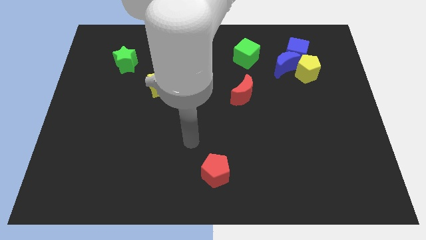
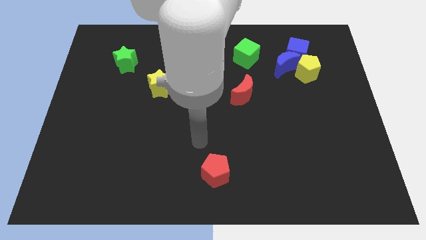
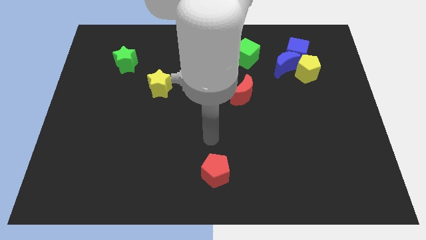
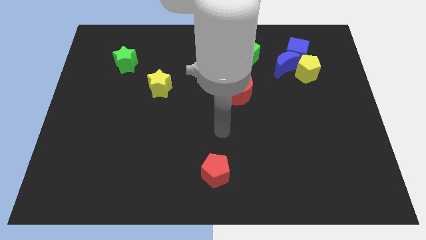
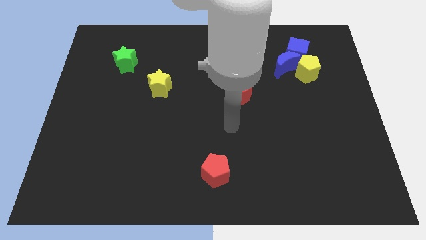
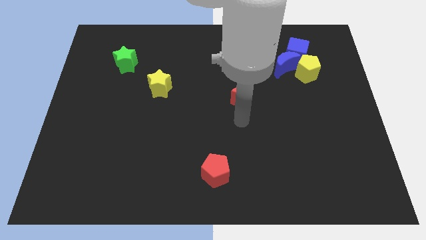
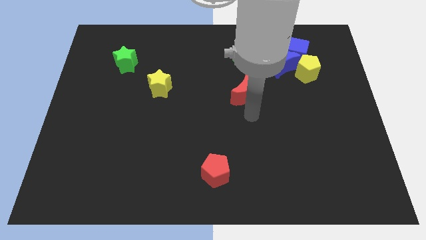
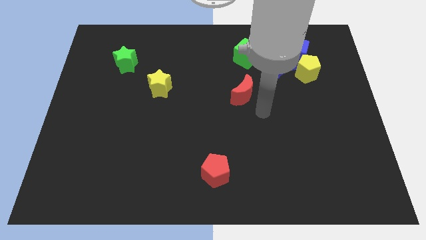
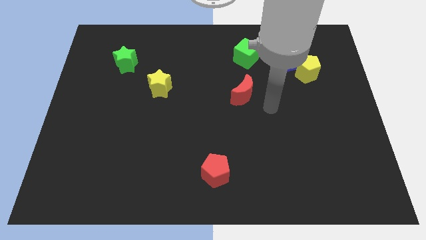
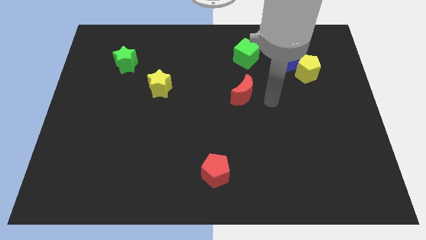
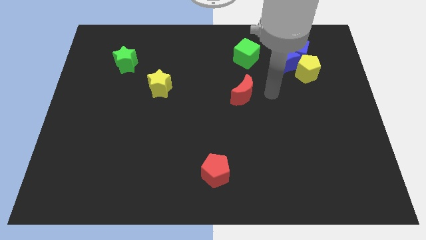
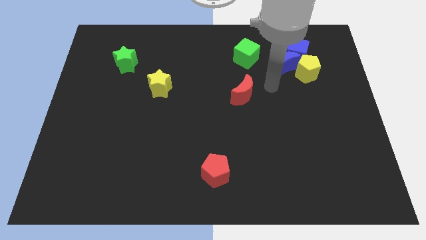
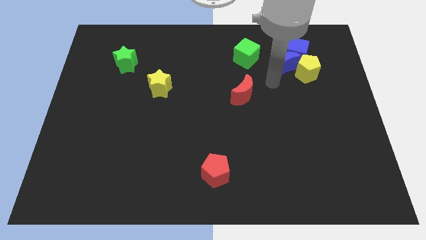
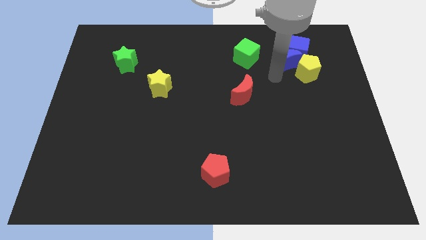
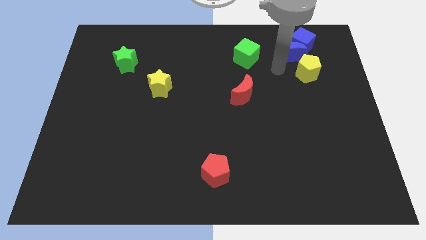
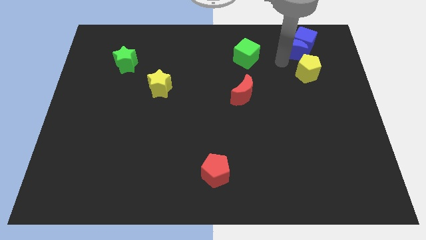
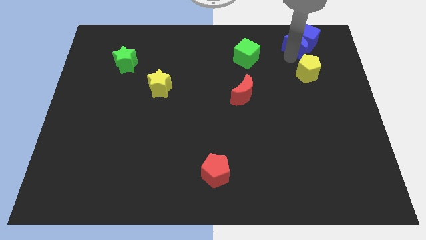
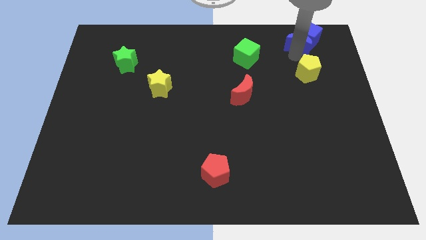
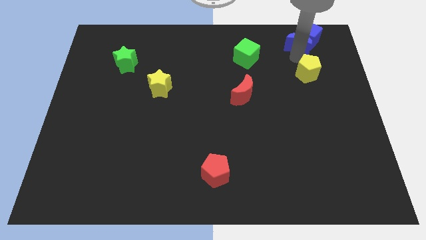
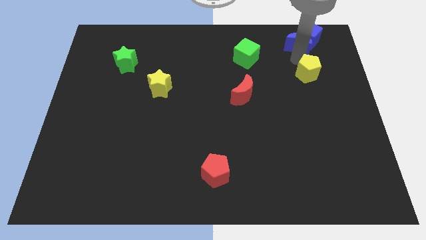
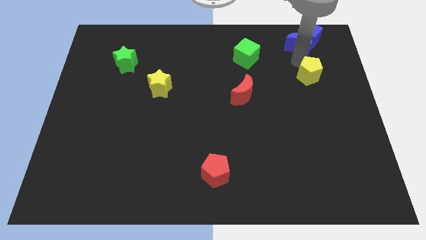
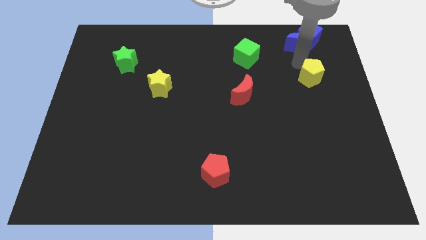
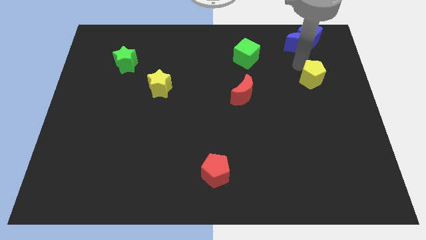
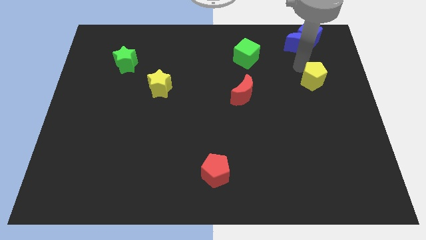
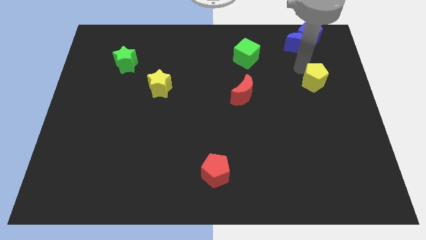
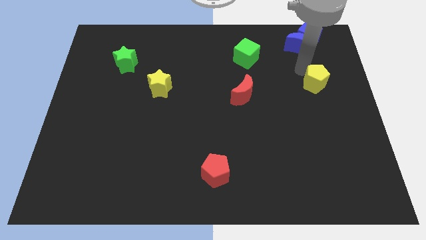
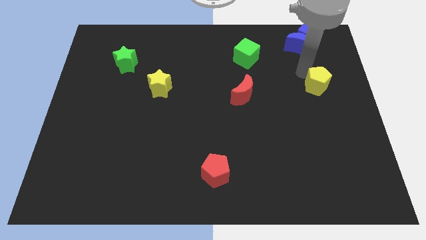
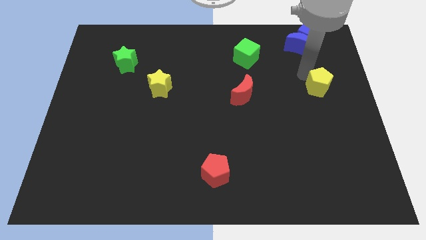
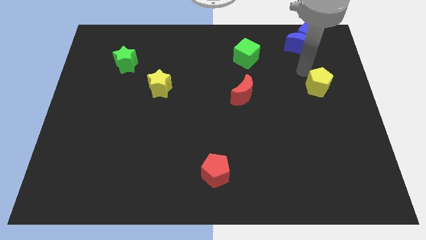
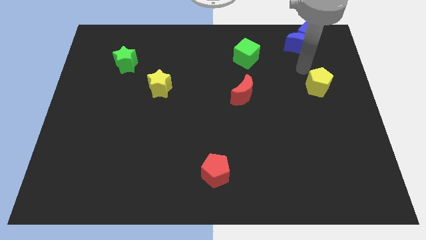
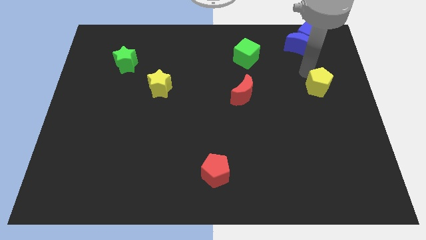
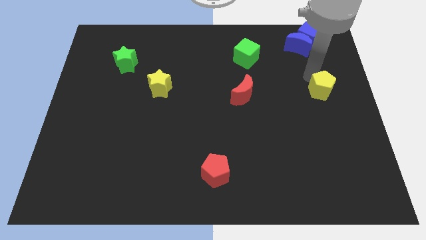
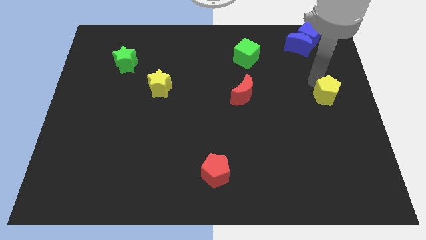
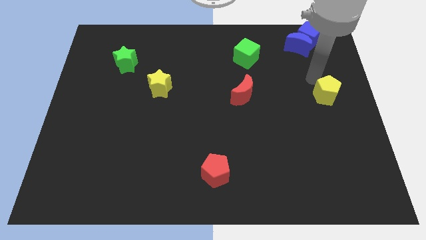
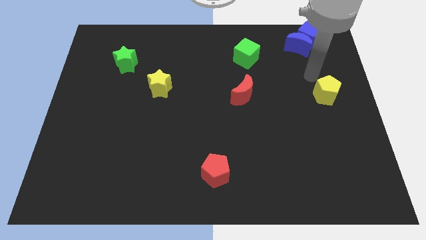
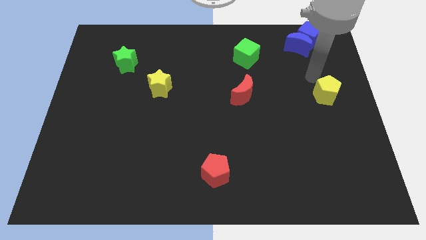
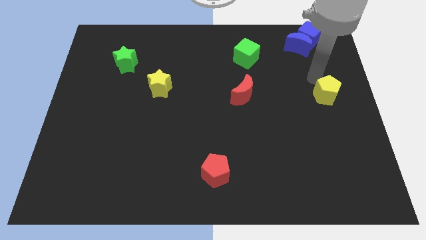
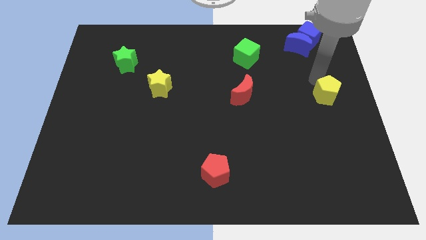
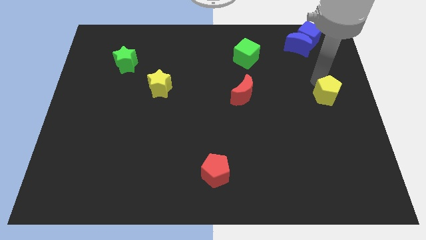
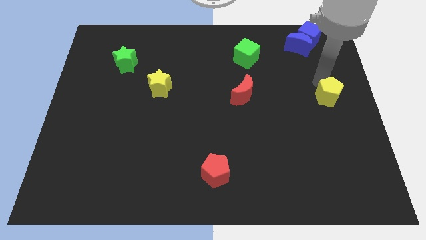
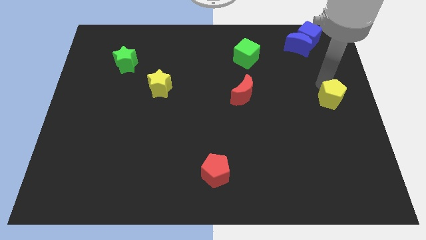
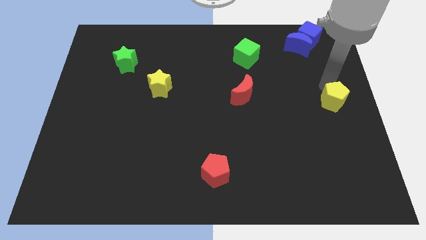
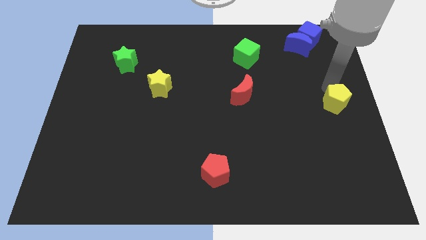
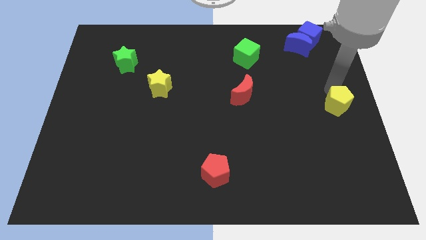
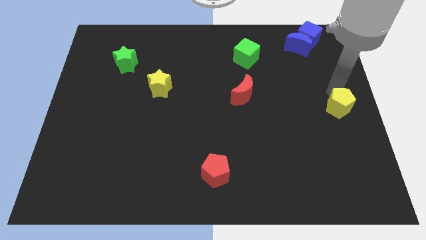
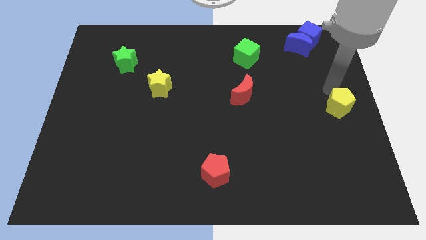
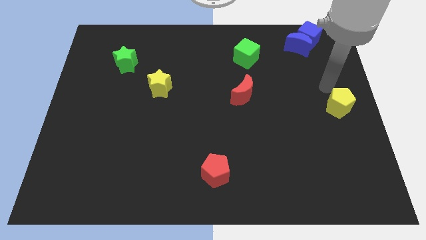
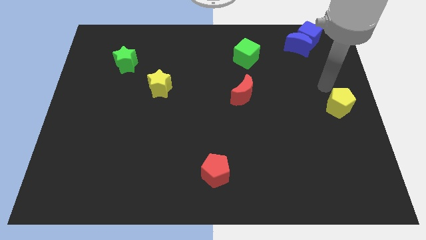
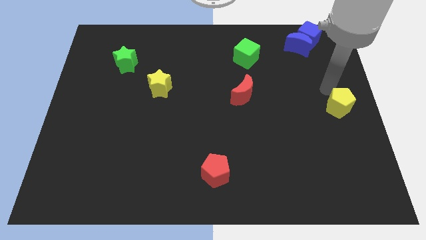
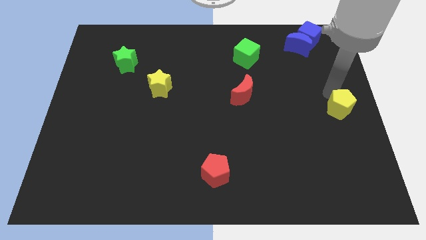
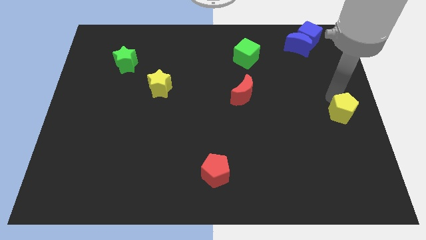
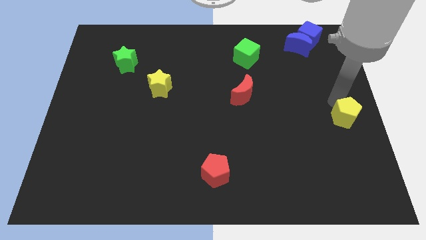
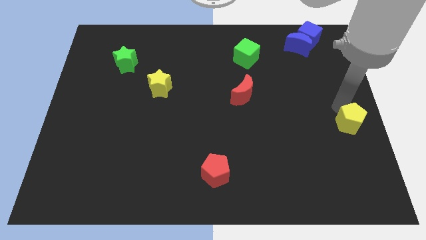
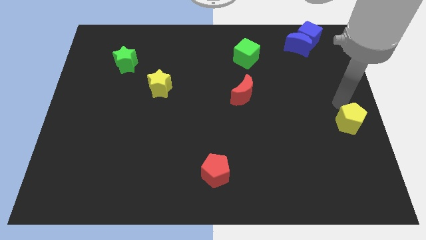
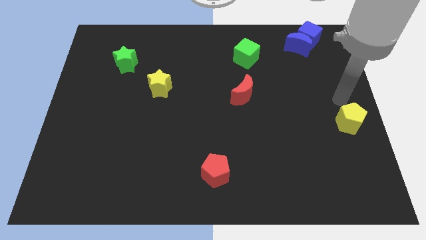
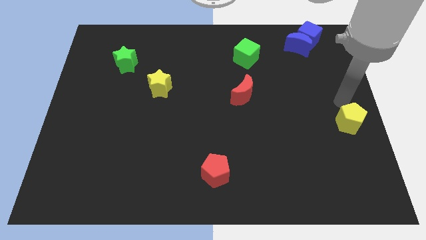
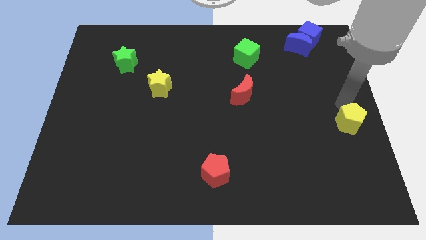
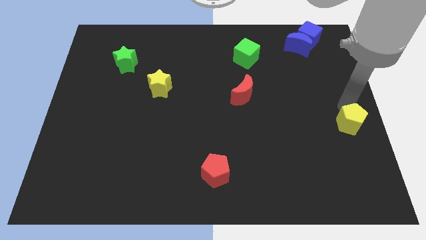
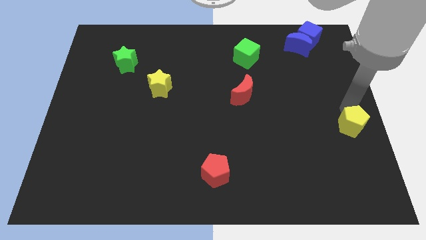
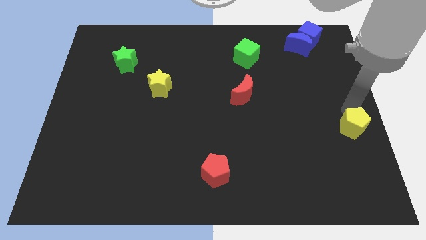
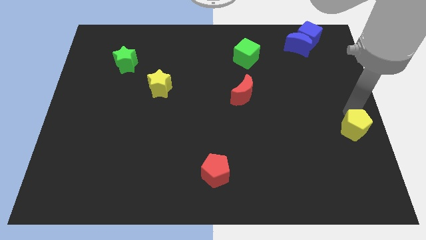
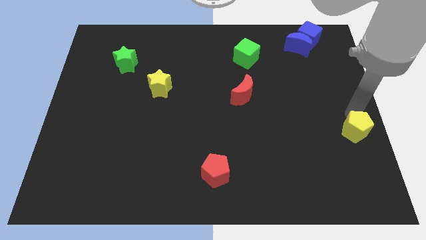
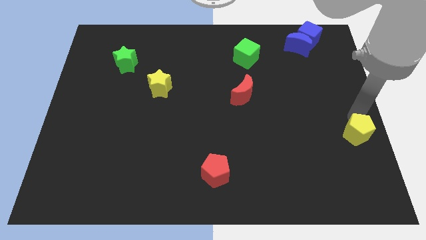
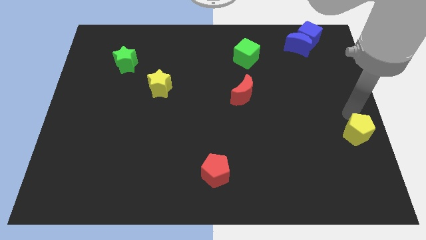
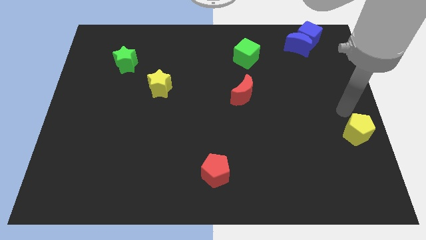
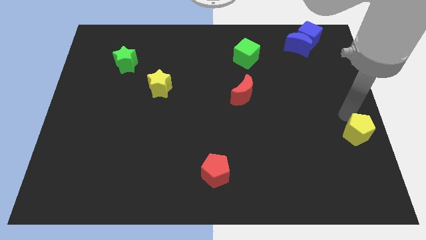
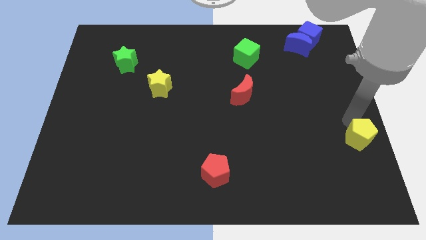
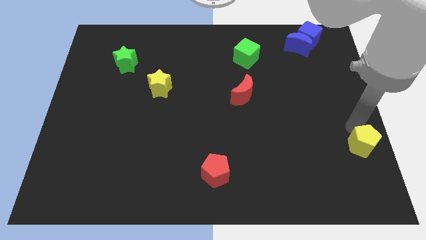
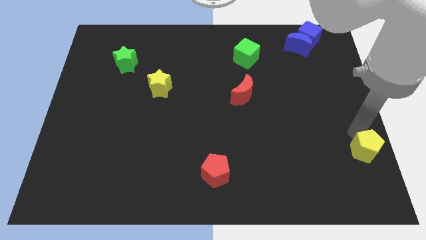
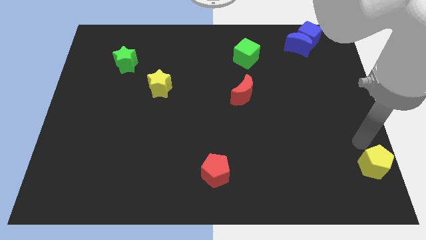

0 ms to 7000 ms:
put the yellow pentagon to the lower right corner
